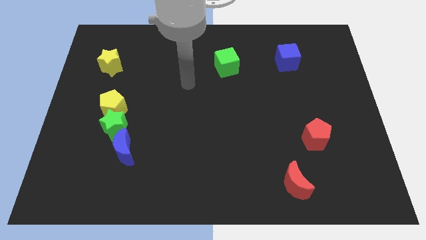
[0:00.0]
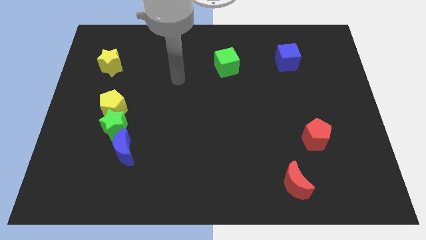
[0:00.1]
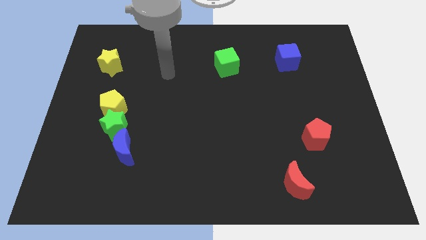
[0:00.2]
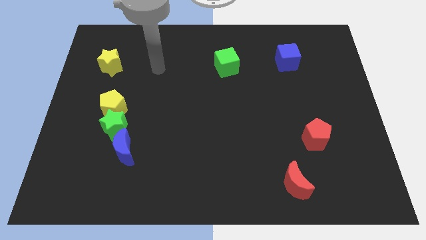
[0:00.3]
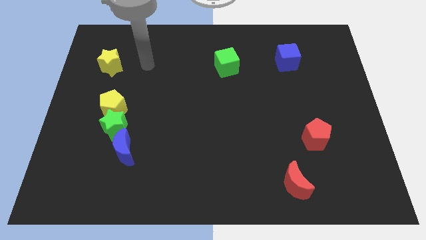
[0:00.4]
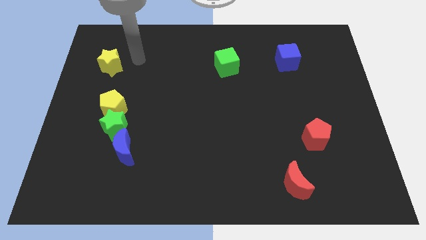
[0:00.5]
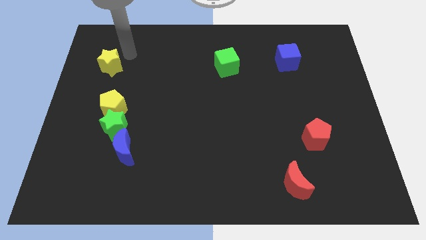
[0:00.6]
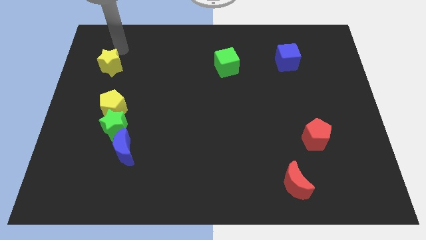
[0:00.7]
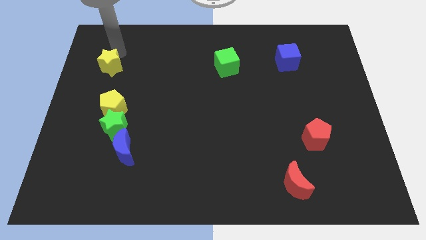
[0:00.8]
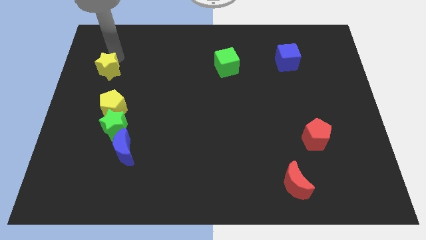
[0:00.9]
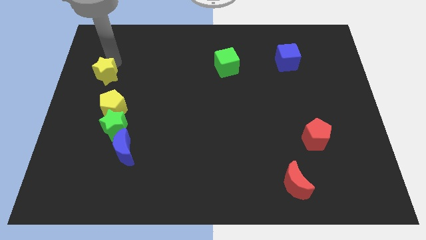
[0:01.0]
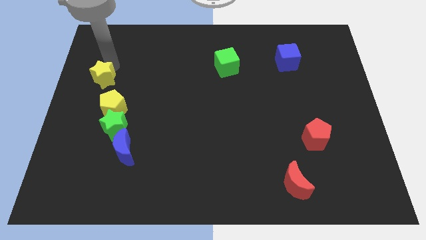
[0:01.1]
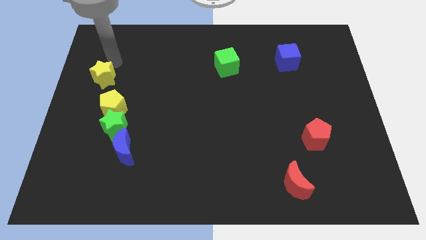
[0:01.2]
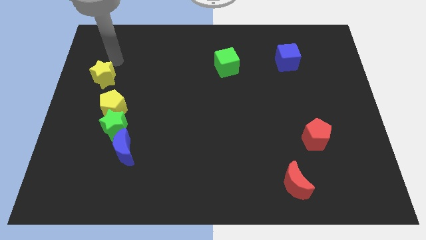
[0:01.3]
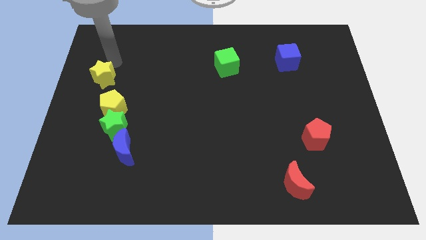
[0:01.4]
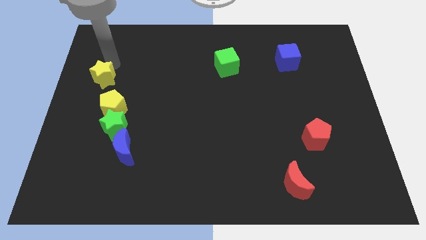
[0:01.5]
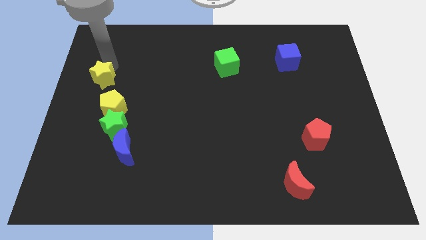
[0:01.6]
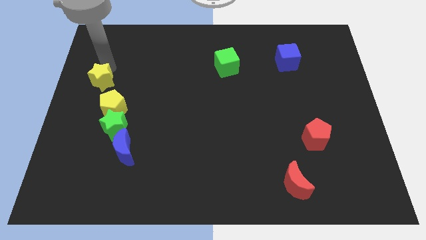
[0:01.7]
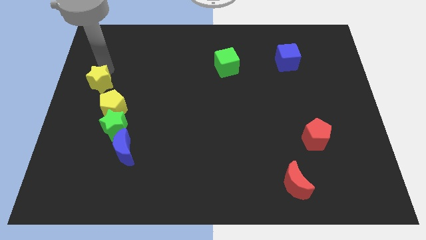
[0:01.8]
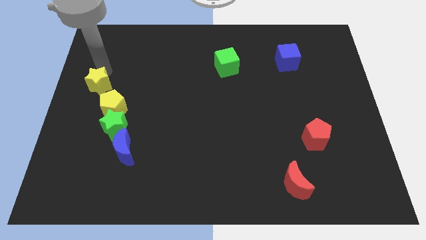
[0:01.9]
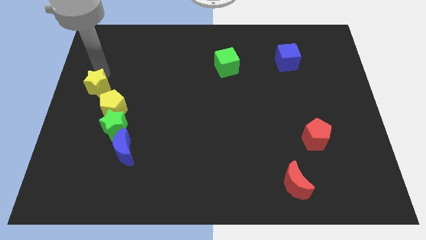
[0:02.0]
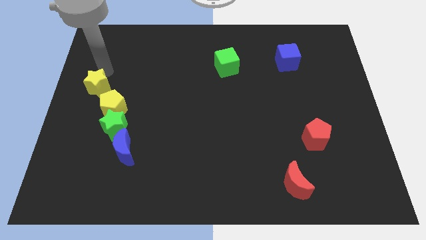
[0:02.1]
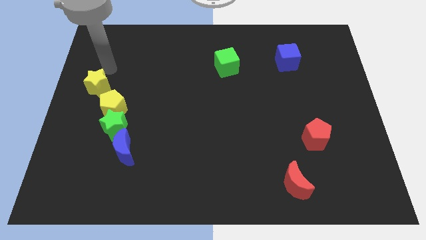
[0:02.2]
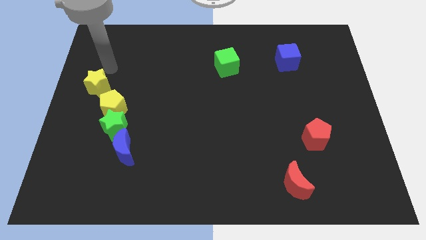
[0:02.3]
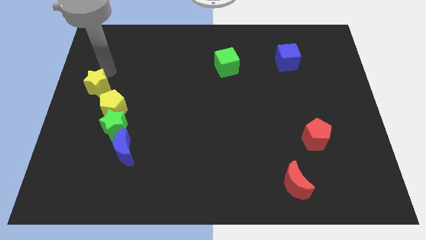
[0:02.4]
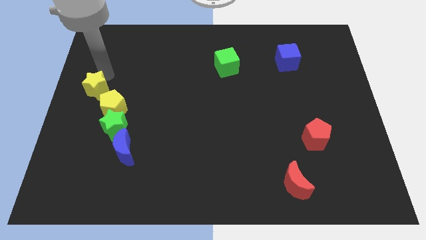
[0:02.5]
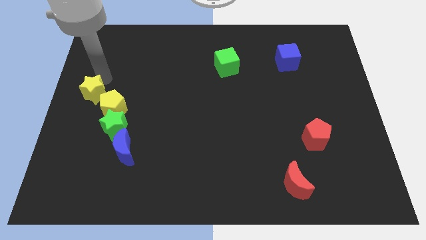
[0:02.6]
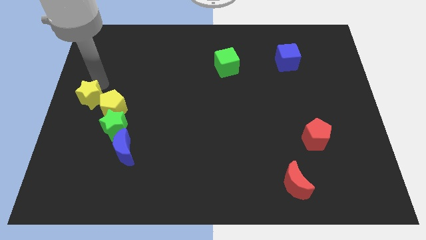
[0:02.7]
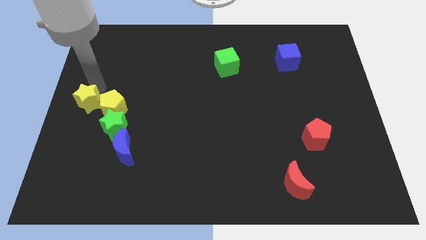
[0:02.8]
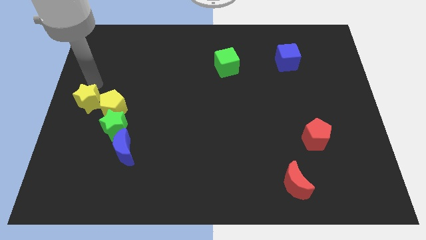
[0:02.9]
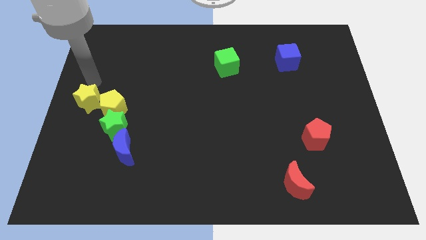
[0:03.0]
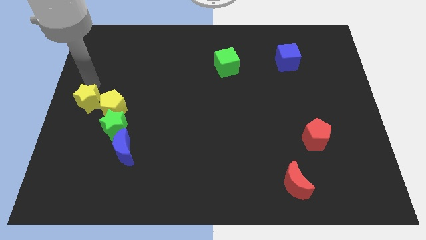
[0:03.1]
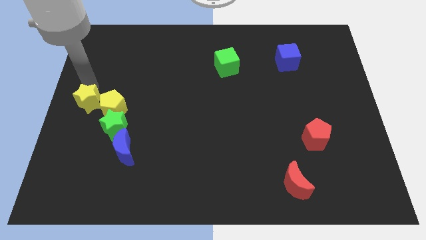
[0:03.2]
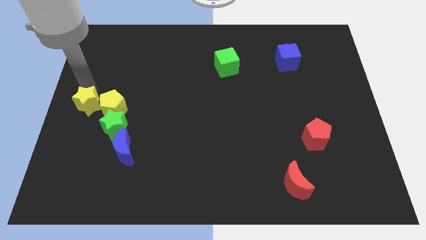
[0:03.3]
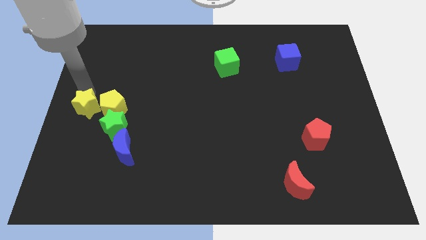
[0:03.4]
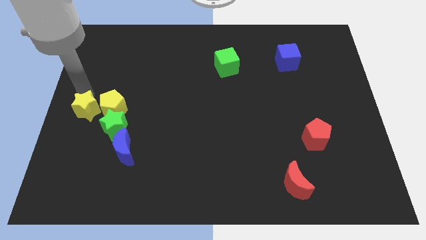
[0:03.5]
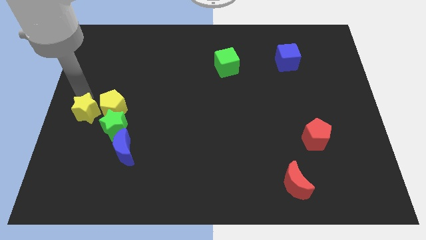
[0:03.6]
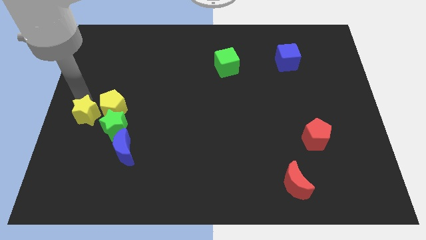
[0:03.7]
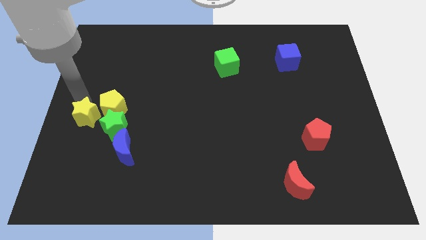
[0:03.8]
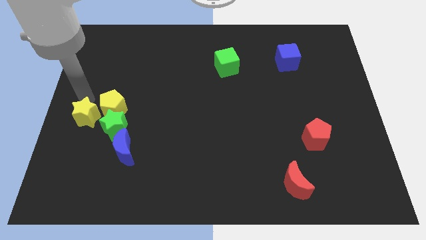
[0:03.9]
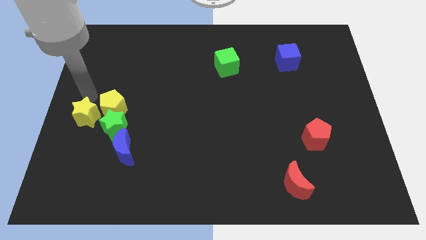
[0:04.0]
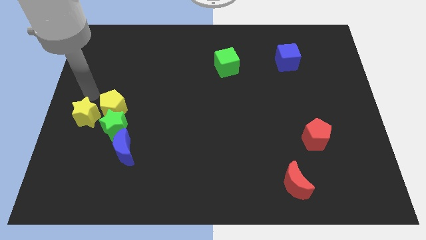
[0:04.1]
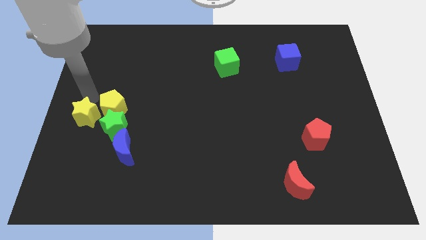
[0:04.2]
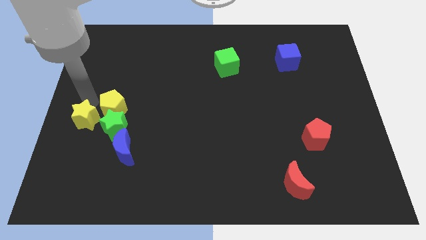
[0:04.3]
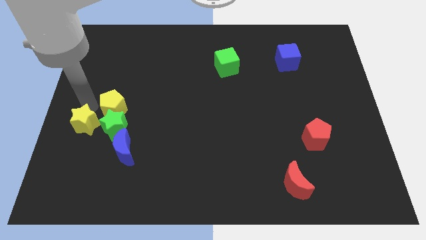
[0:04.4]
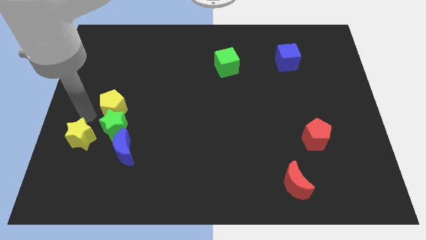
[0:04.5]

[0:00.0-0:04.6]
slide the yellow star down

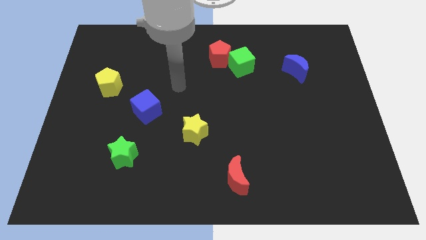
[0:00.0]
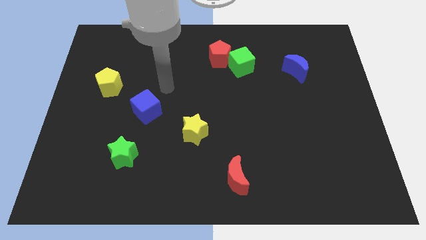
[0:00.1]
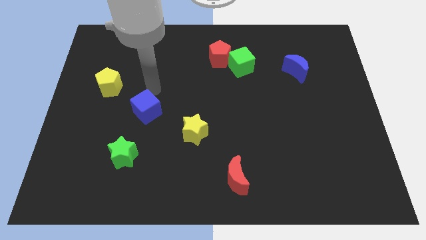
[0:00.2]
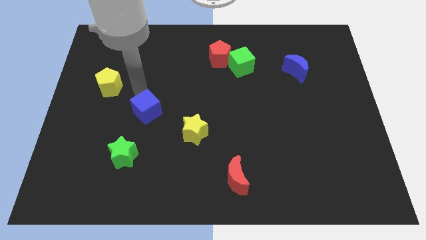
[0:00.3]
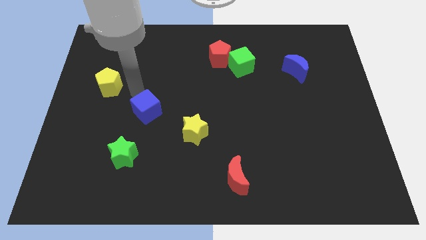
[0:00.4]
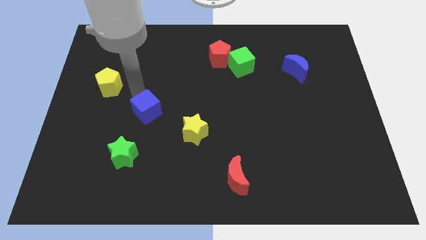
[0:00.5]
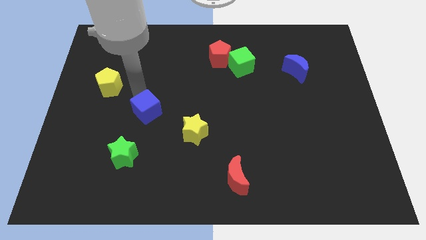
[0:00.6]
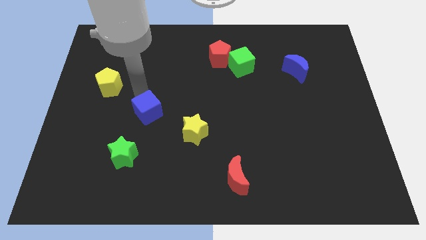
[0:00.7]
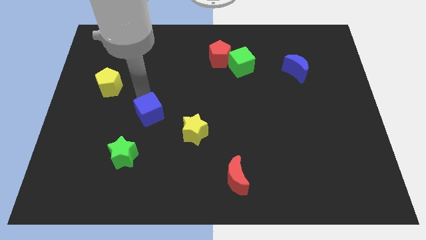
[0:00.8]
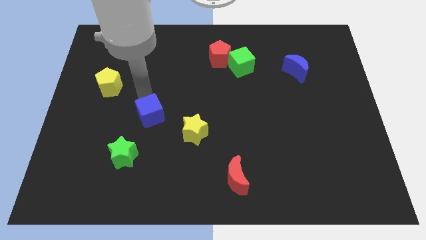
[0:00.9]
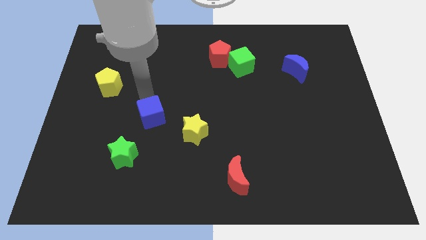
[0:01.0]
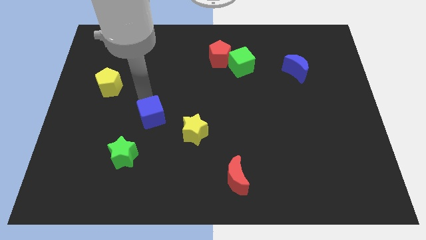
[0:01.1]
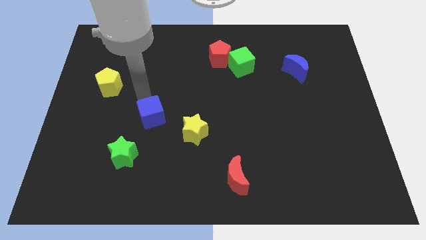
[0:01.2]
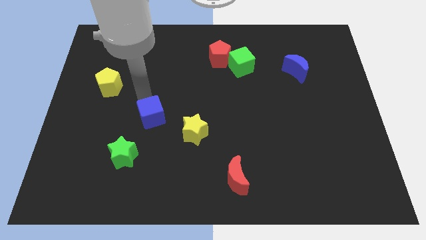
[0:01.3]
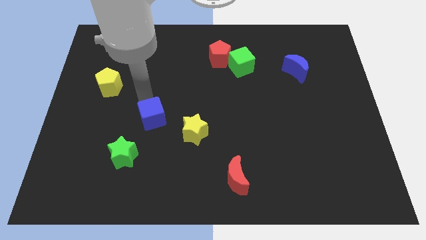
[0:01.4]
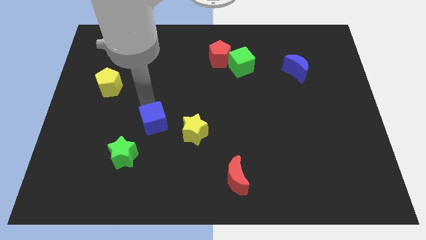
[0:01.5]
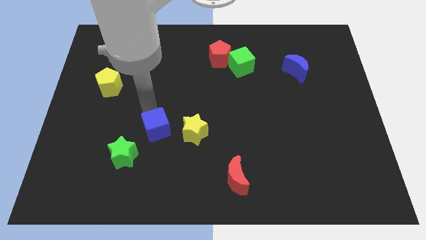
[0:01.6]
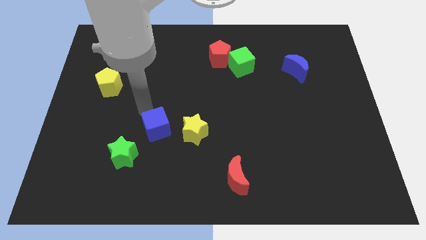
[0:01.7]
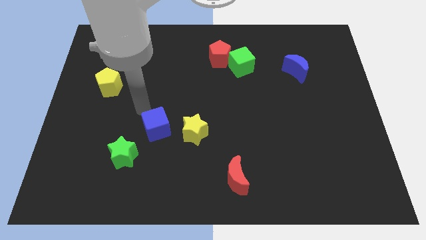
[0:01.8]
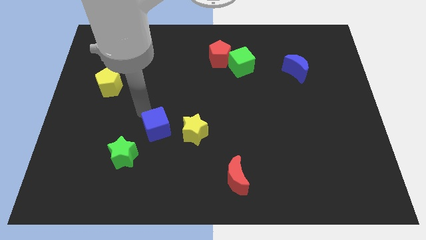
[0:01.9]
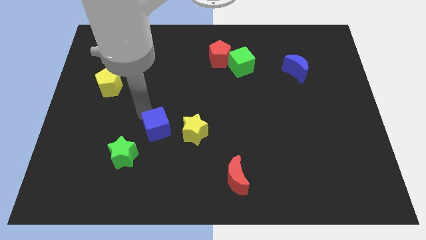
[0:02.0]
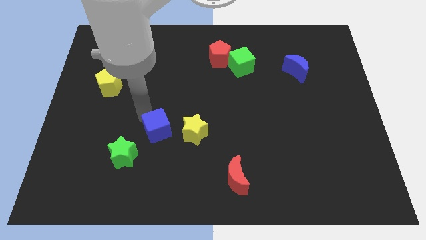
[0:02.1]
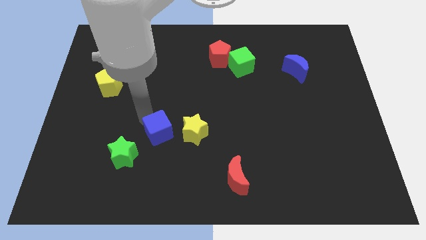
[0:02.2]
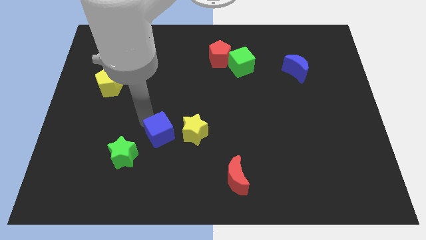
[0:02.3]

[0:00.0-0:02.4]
slide the blue cube downwards and right diagonally a little bit

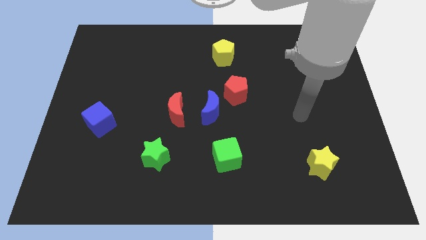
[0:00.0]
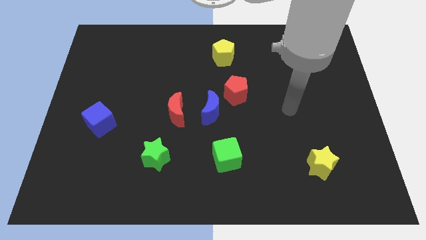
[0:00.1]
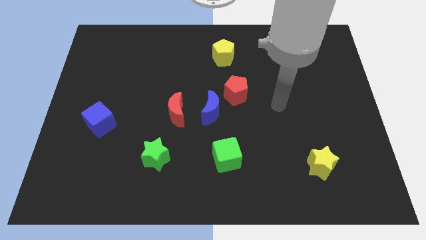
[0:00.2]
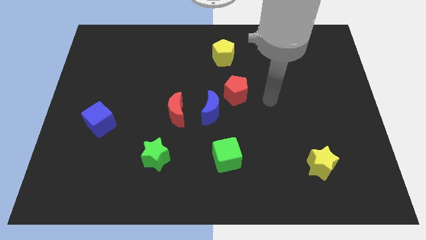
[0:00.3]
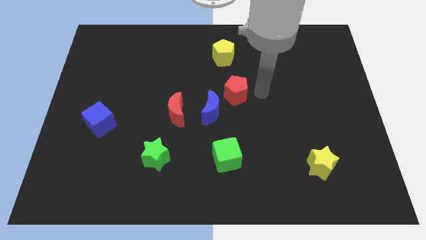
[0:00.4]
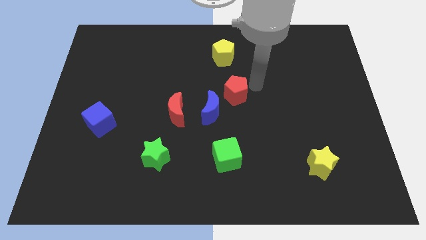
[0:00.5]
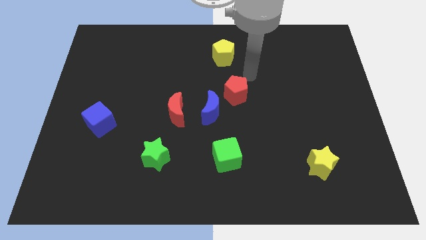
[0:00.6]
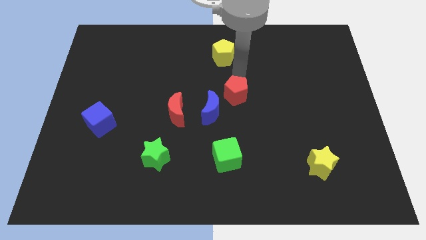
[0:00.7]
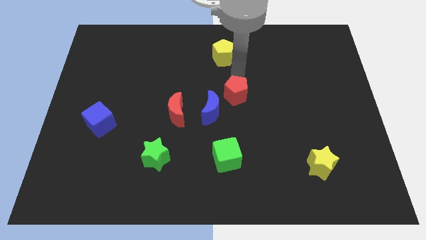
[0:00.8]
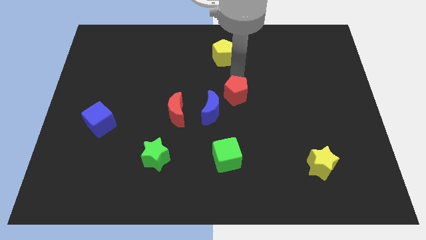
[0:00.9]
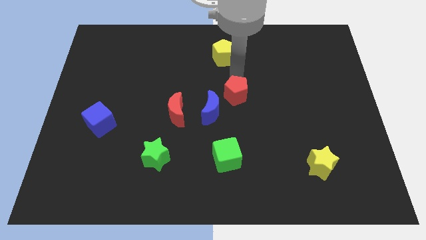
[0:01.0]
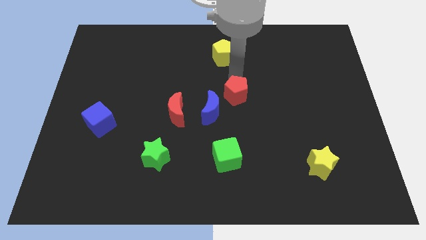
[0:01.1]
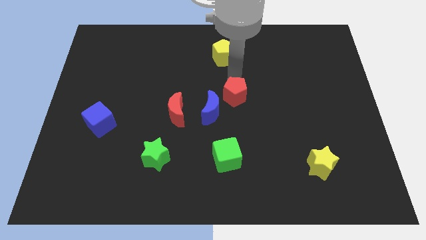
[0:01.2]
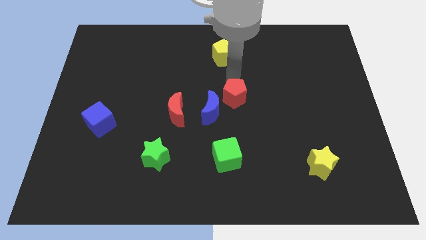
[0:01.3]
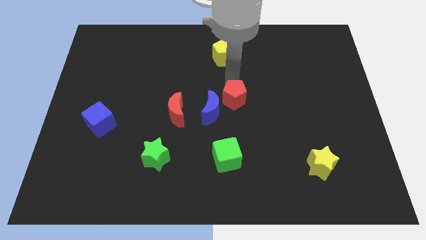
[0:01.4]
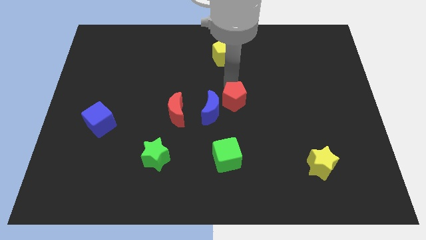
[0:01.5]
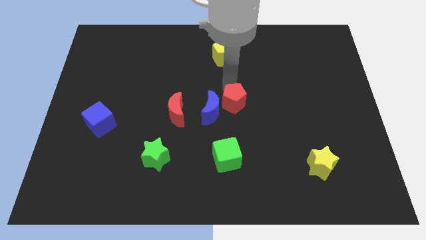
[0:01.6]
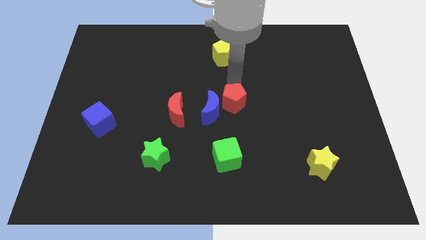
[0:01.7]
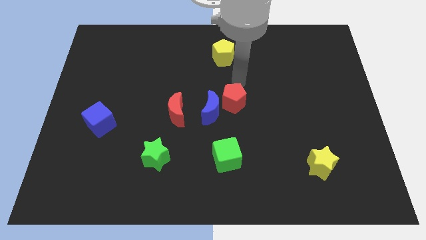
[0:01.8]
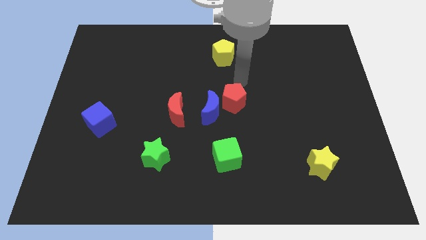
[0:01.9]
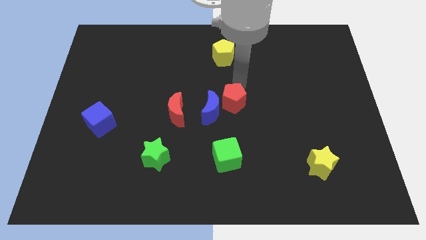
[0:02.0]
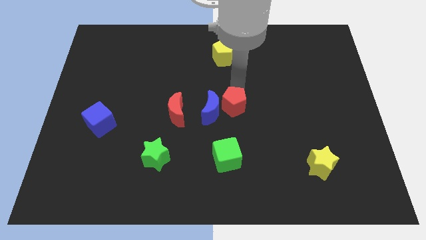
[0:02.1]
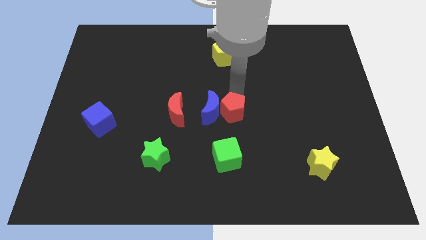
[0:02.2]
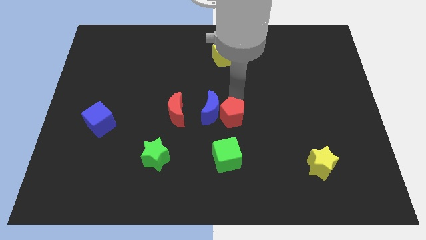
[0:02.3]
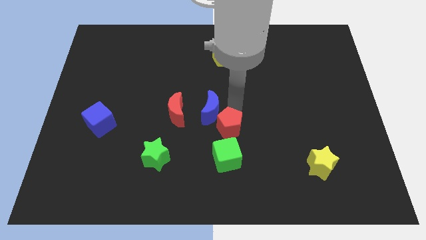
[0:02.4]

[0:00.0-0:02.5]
slightly push the red pentagon diagonally down and to the left
